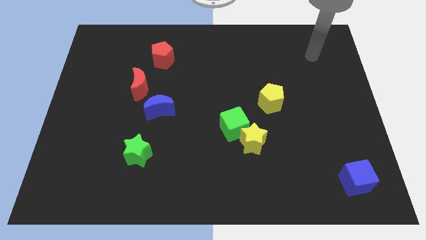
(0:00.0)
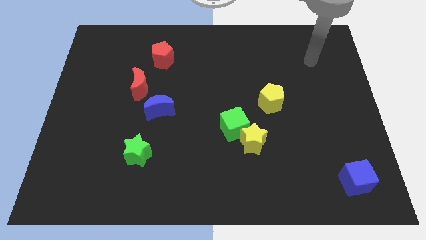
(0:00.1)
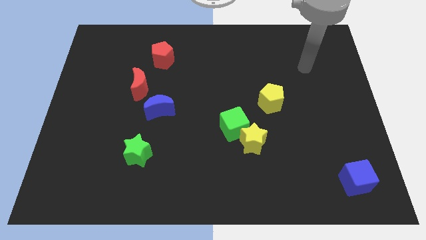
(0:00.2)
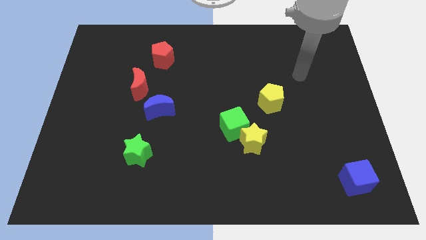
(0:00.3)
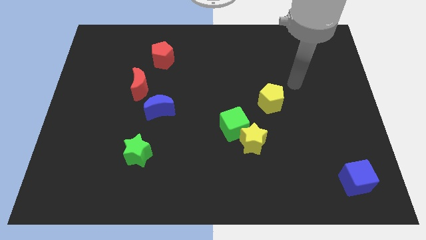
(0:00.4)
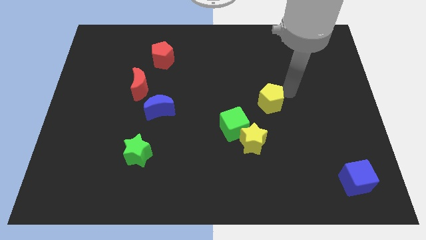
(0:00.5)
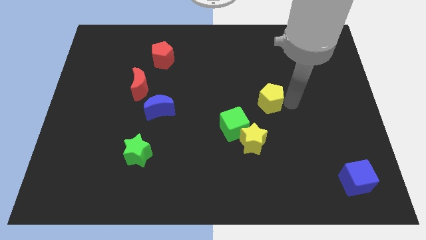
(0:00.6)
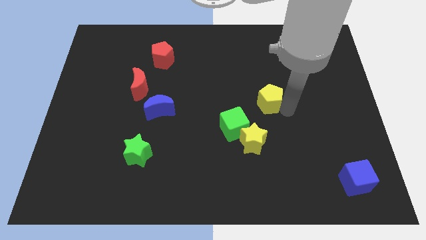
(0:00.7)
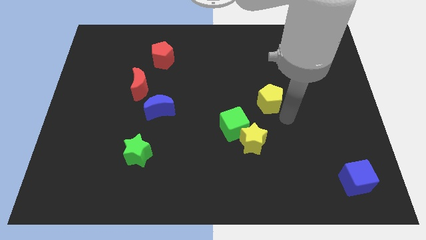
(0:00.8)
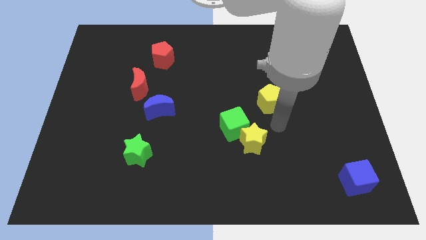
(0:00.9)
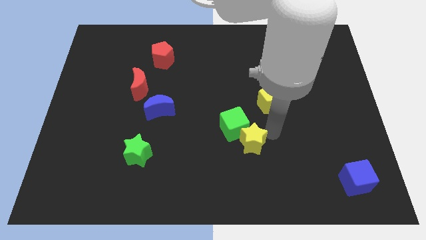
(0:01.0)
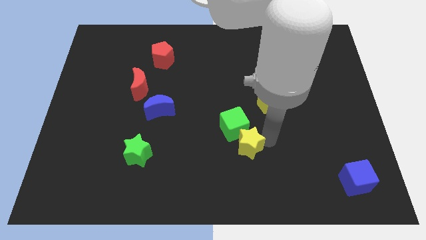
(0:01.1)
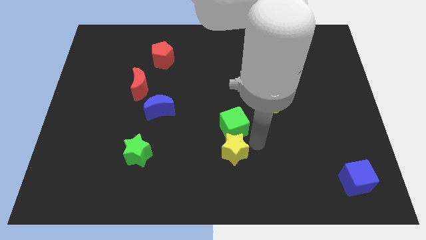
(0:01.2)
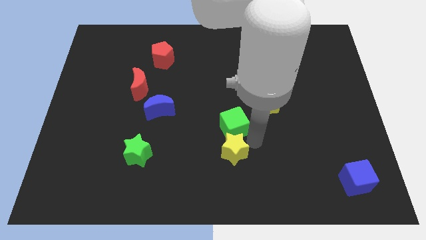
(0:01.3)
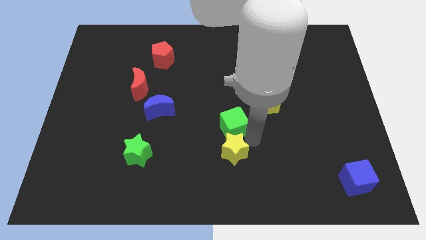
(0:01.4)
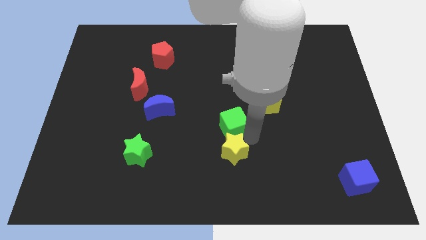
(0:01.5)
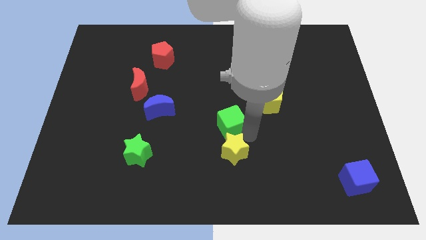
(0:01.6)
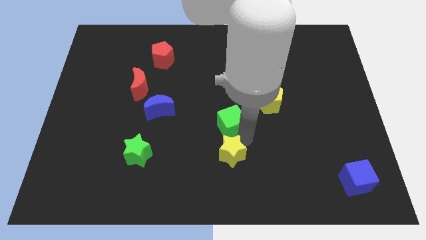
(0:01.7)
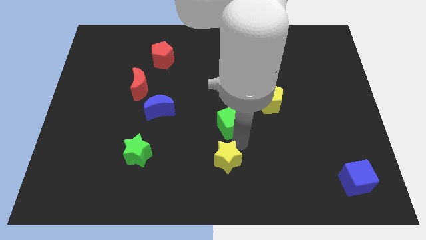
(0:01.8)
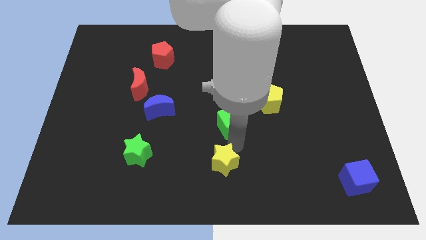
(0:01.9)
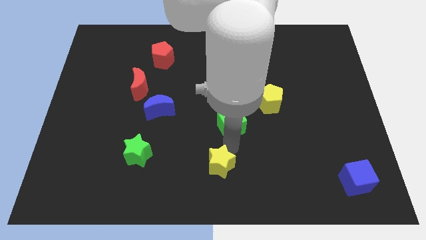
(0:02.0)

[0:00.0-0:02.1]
separate the green cube from the yellow star

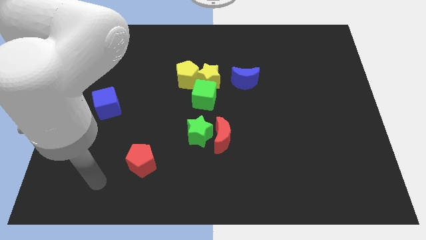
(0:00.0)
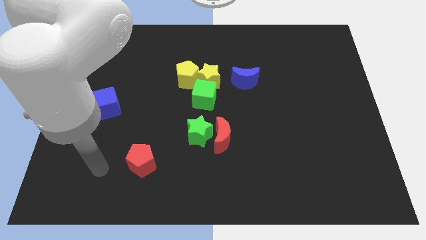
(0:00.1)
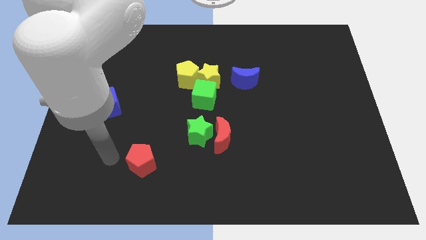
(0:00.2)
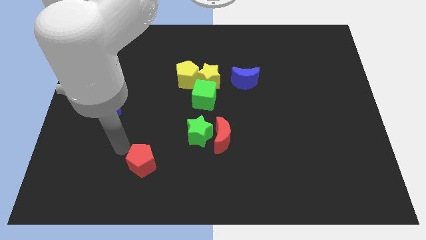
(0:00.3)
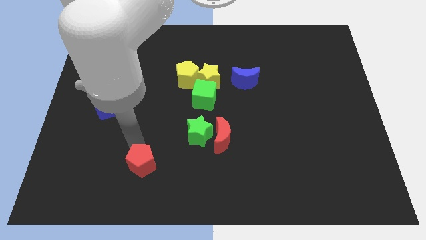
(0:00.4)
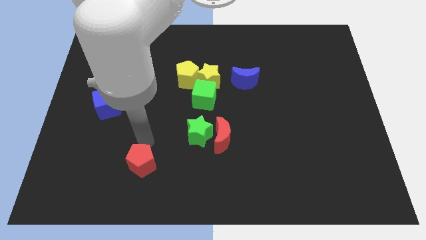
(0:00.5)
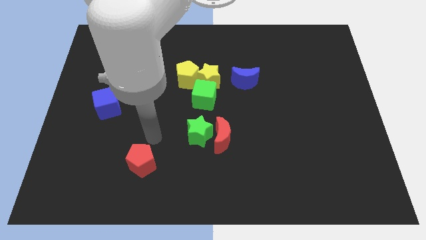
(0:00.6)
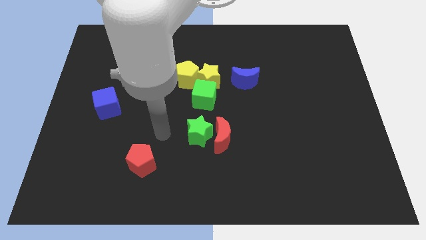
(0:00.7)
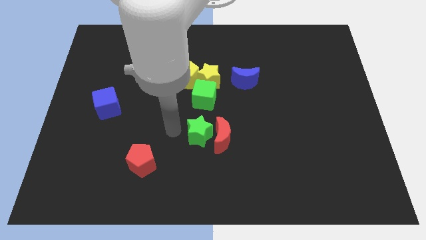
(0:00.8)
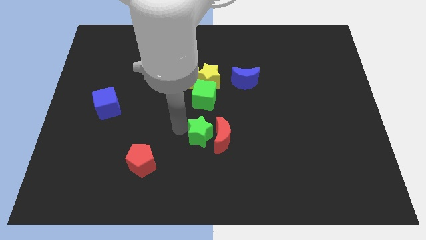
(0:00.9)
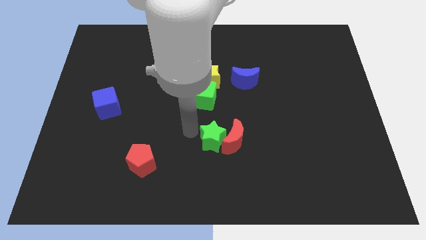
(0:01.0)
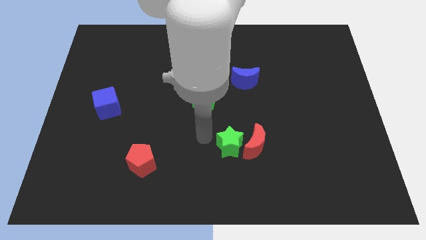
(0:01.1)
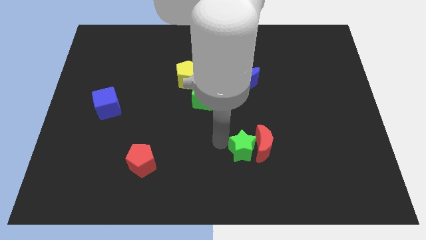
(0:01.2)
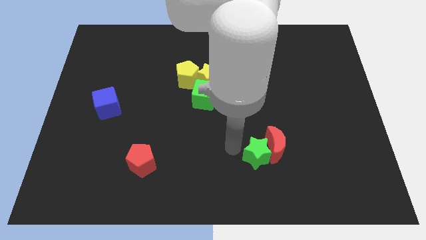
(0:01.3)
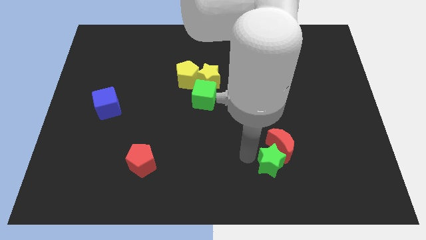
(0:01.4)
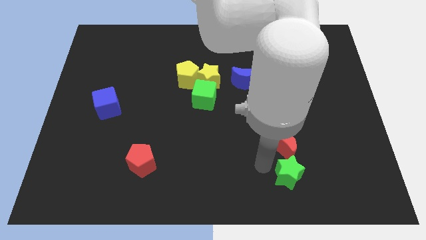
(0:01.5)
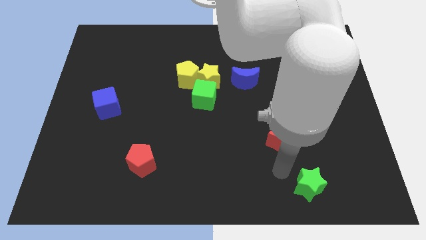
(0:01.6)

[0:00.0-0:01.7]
move the red moon away from the green star

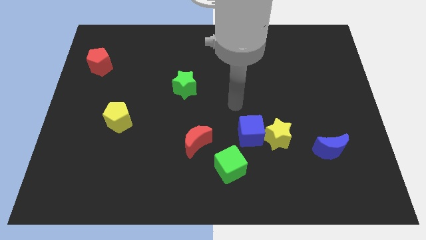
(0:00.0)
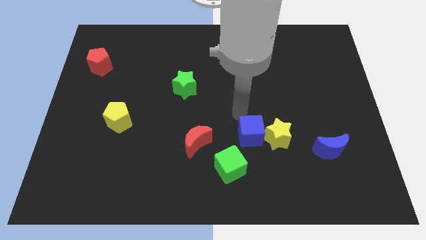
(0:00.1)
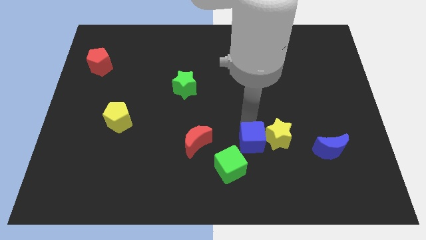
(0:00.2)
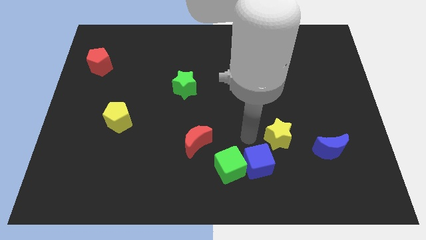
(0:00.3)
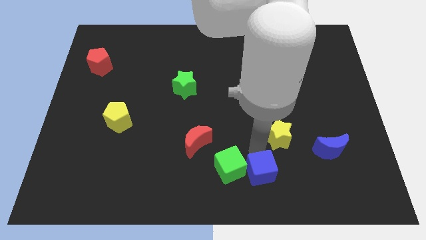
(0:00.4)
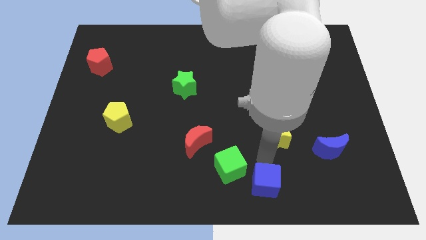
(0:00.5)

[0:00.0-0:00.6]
move the yellow star away from the blue cube

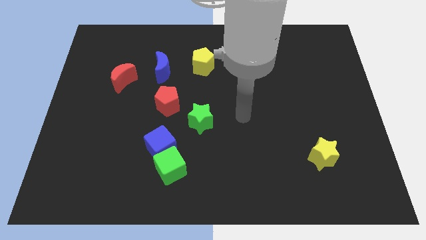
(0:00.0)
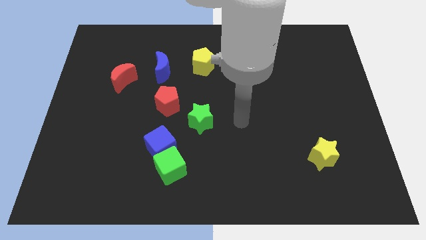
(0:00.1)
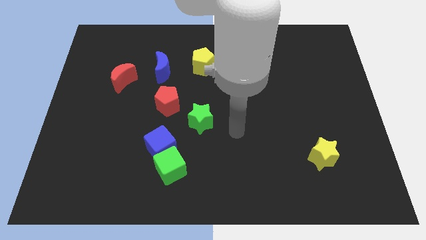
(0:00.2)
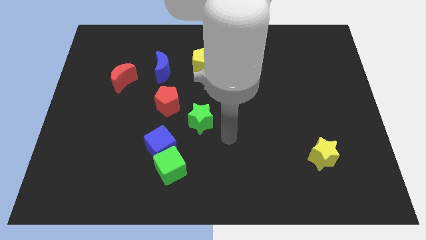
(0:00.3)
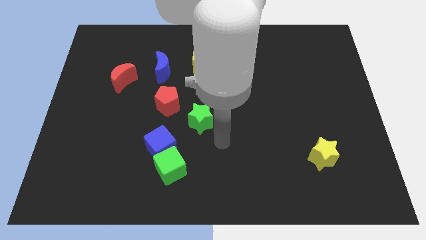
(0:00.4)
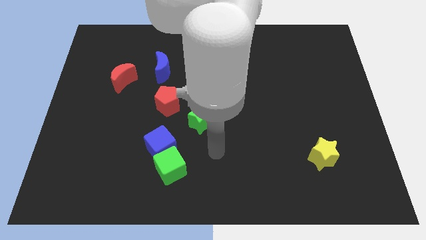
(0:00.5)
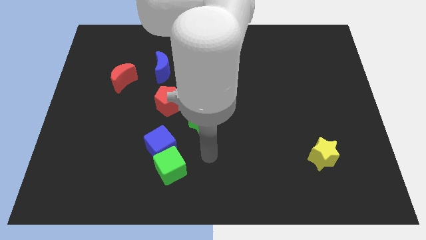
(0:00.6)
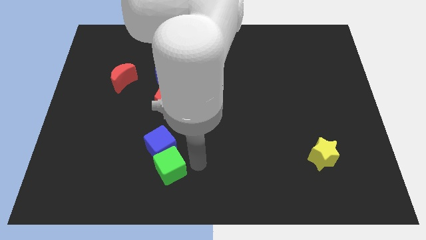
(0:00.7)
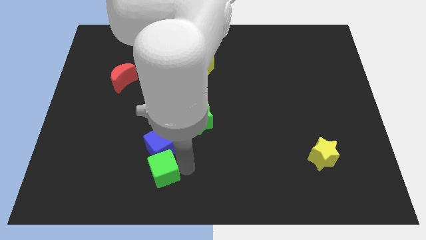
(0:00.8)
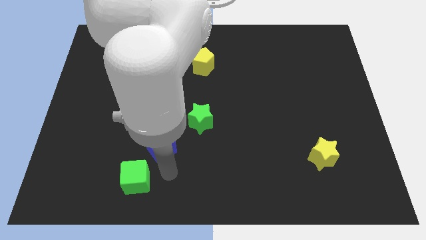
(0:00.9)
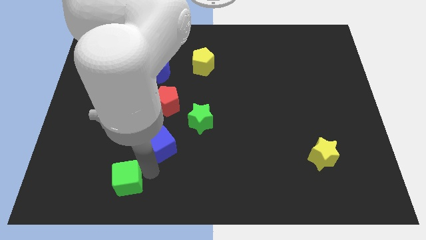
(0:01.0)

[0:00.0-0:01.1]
pull the blue cube apart from the green cube

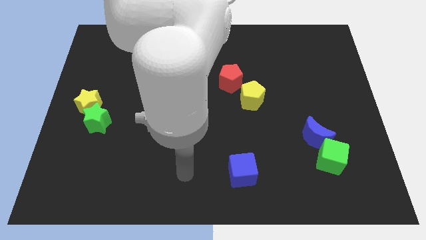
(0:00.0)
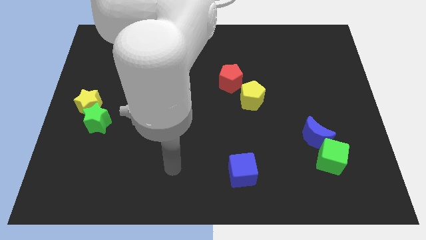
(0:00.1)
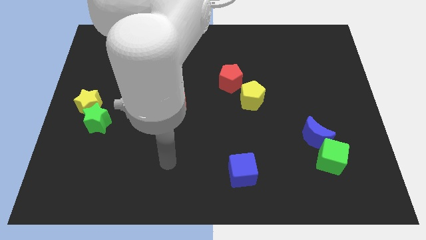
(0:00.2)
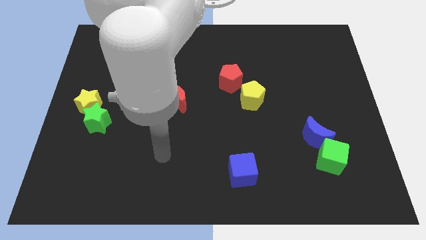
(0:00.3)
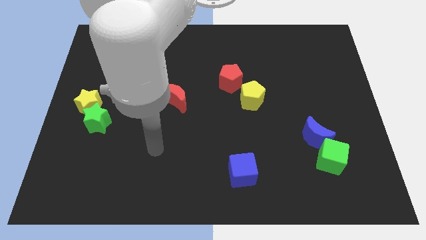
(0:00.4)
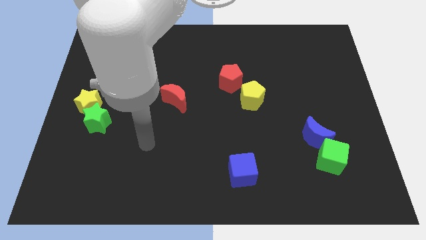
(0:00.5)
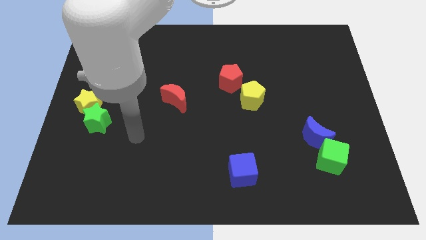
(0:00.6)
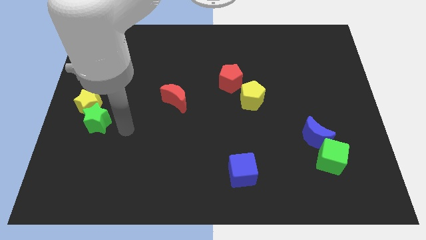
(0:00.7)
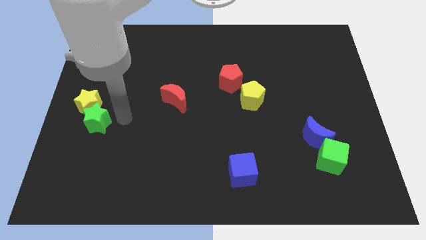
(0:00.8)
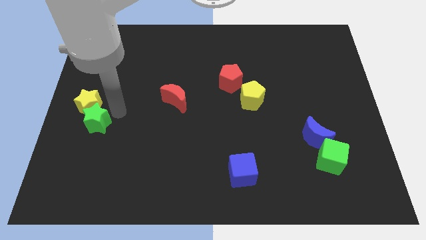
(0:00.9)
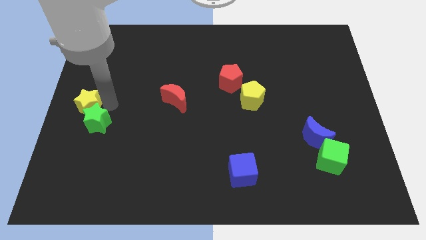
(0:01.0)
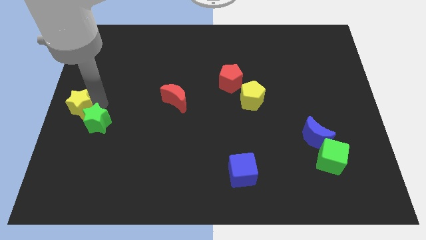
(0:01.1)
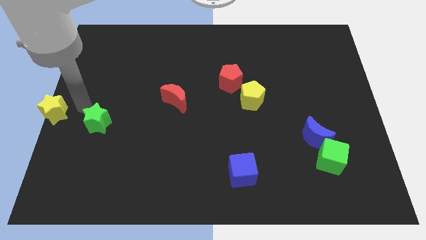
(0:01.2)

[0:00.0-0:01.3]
move the green star away from the yellow star

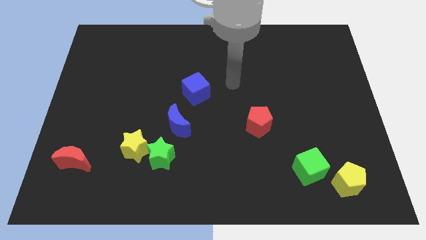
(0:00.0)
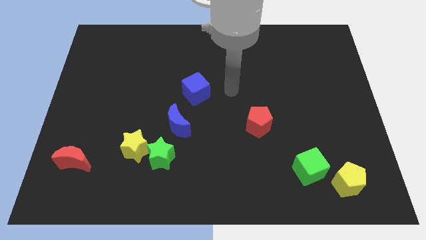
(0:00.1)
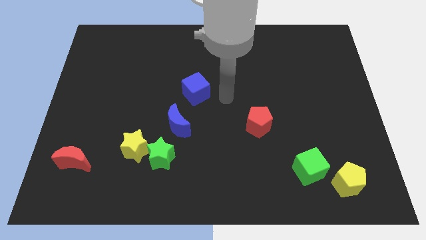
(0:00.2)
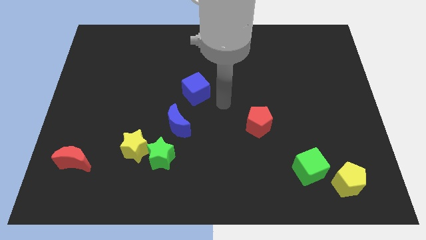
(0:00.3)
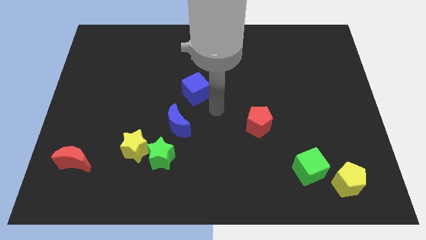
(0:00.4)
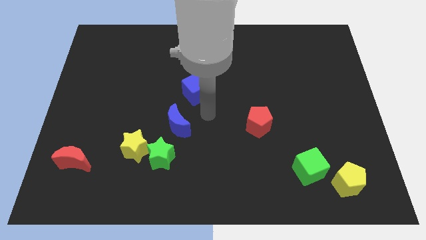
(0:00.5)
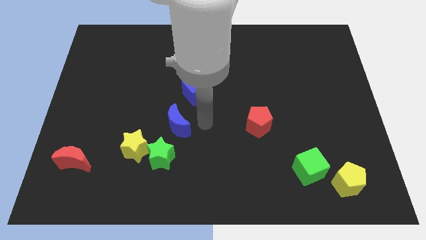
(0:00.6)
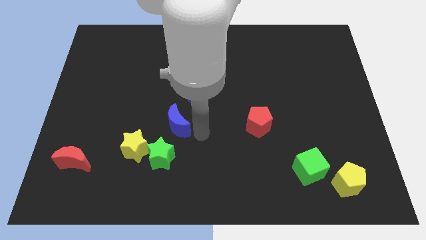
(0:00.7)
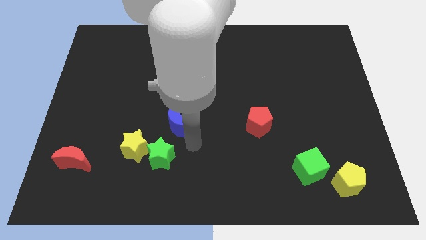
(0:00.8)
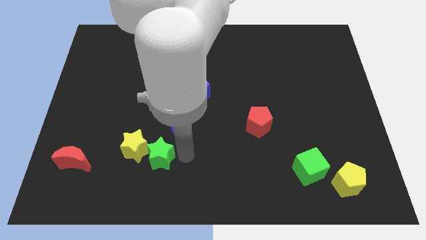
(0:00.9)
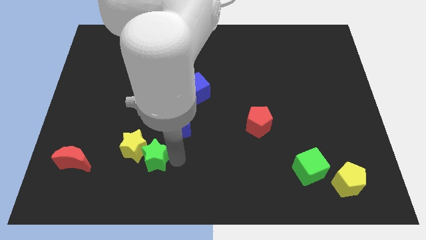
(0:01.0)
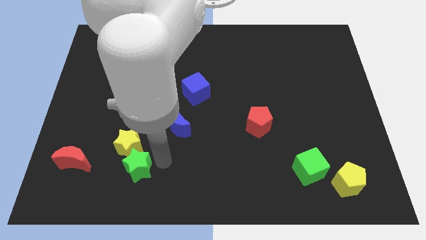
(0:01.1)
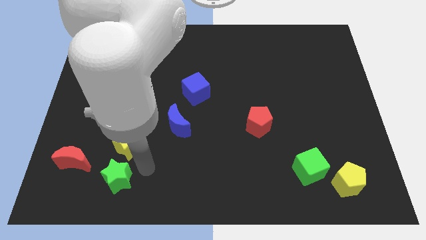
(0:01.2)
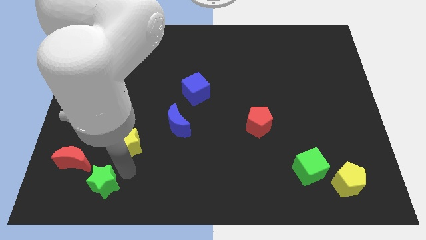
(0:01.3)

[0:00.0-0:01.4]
pull the yellow star apart from the green star

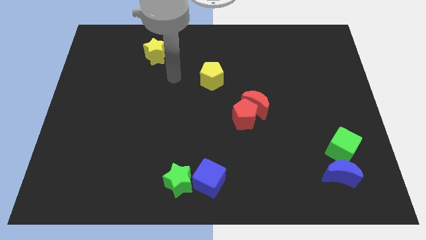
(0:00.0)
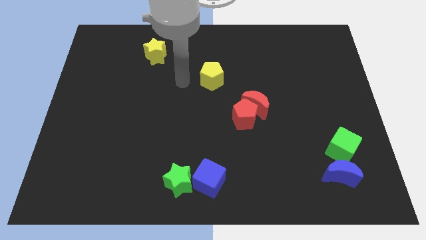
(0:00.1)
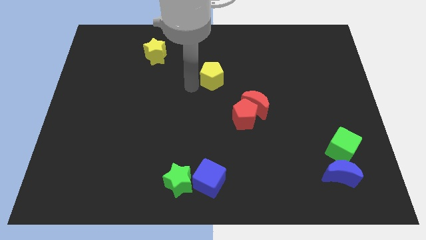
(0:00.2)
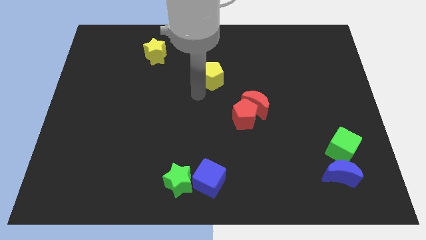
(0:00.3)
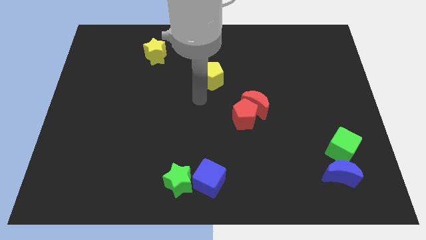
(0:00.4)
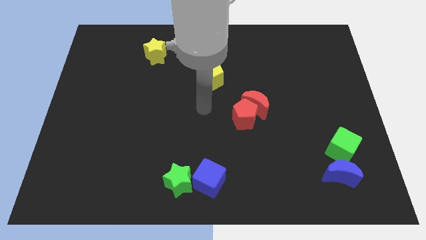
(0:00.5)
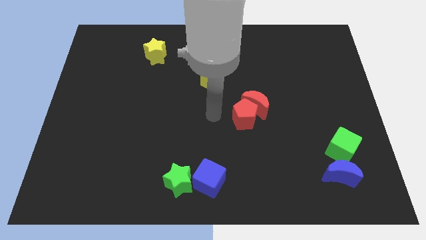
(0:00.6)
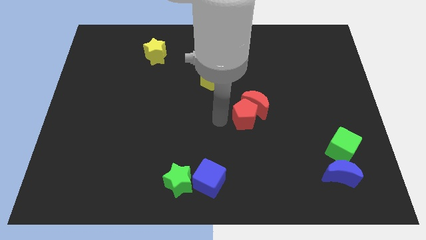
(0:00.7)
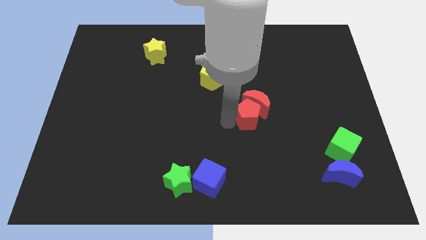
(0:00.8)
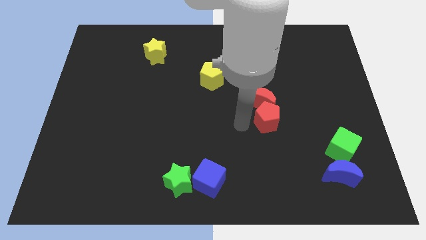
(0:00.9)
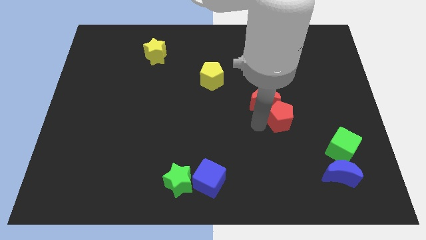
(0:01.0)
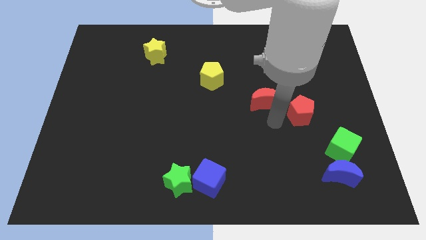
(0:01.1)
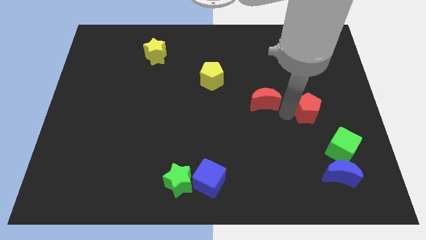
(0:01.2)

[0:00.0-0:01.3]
separate the red moon from the red pentagon
